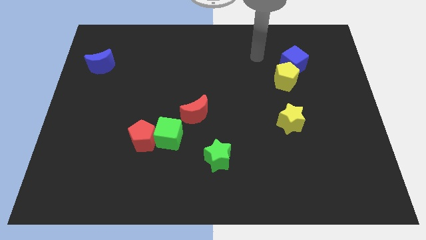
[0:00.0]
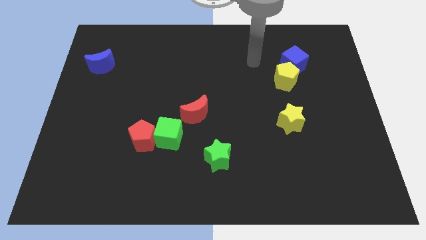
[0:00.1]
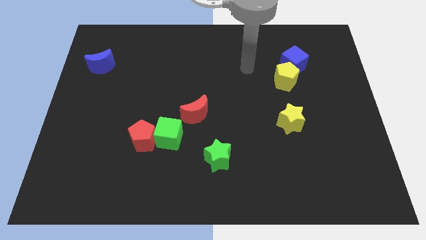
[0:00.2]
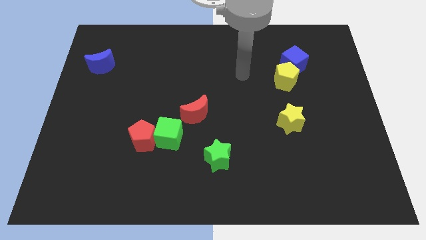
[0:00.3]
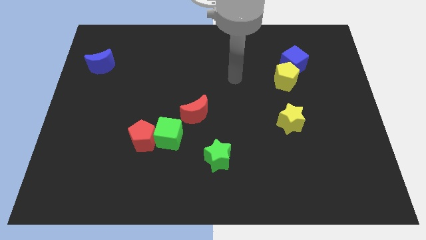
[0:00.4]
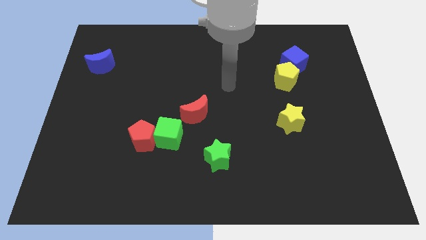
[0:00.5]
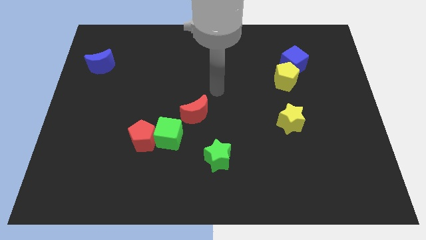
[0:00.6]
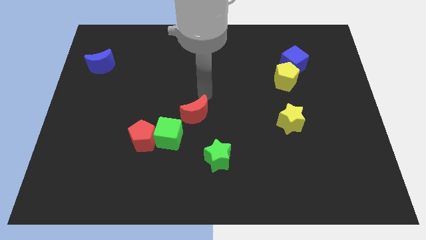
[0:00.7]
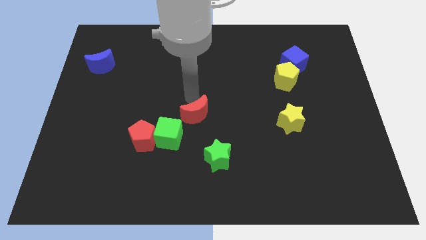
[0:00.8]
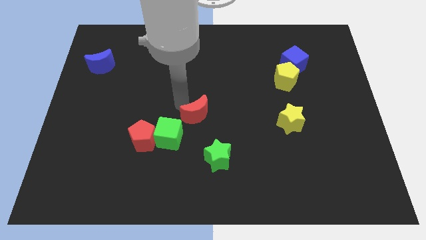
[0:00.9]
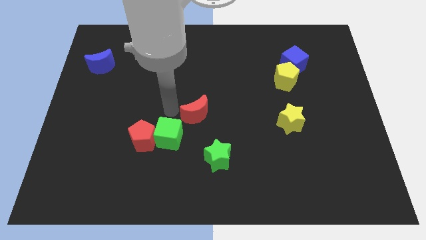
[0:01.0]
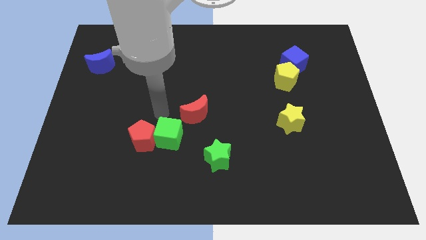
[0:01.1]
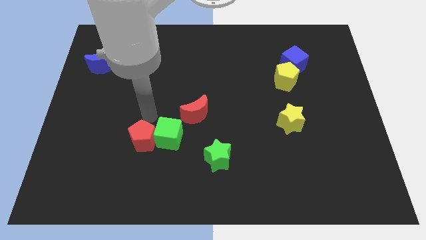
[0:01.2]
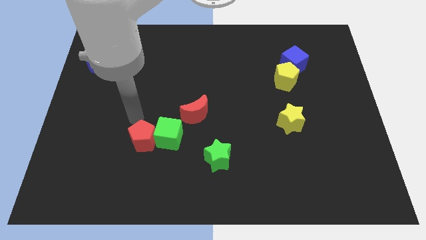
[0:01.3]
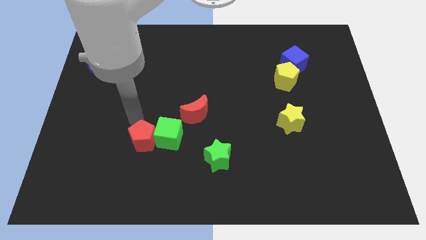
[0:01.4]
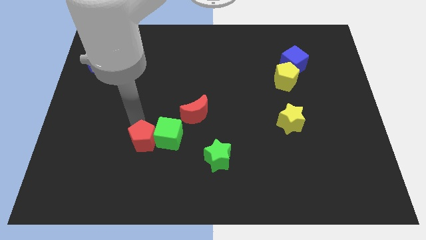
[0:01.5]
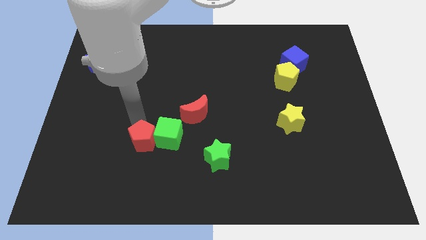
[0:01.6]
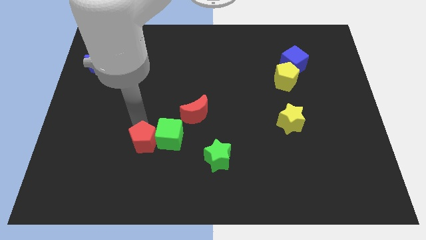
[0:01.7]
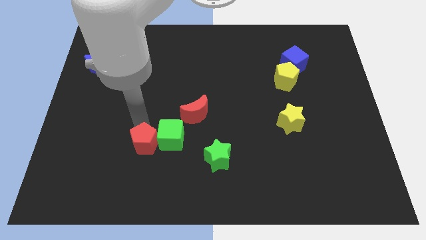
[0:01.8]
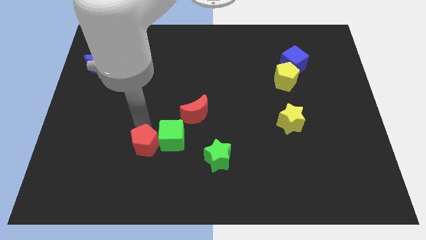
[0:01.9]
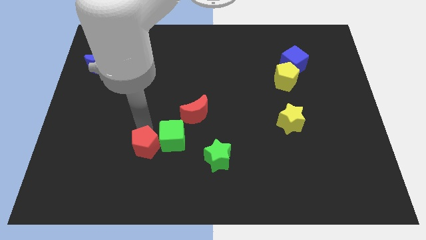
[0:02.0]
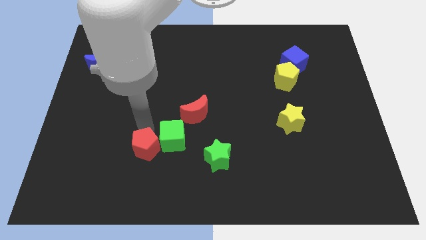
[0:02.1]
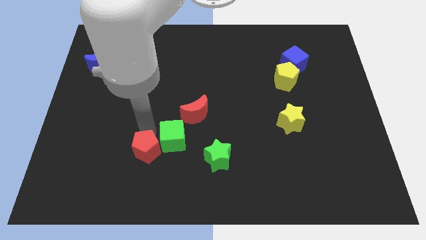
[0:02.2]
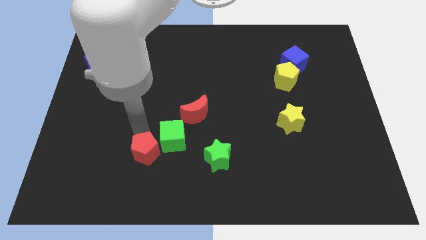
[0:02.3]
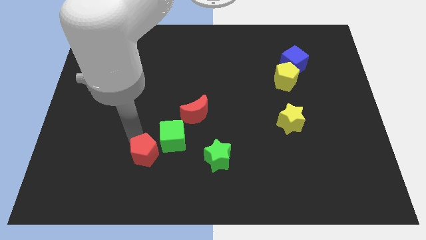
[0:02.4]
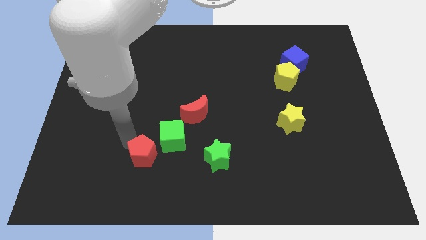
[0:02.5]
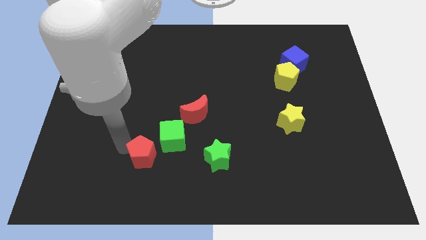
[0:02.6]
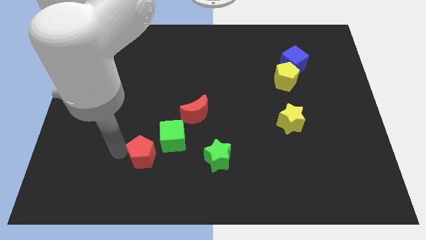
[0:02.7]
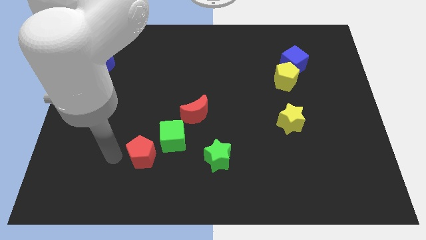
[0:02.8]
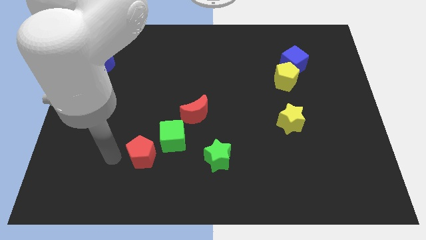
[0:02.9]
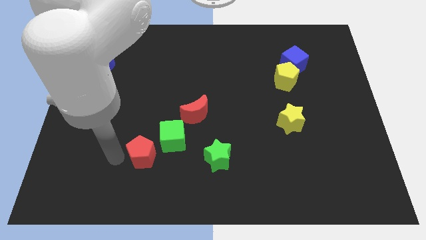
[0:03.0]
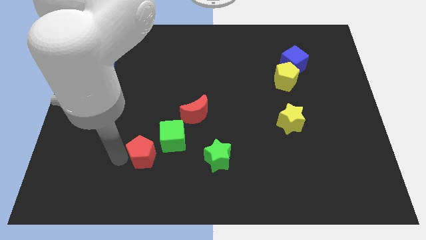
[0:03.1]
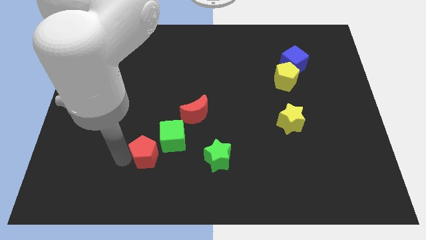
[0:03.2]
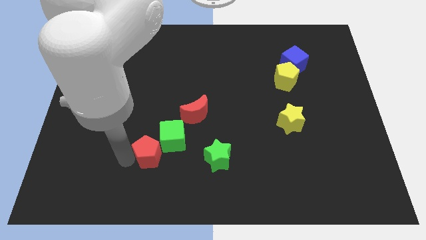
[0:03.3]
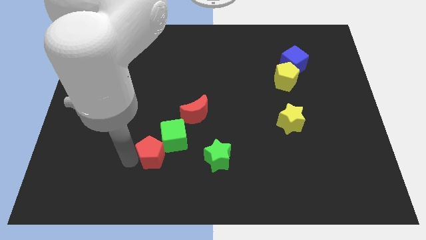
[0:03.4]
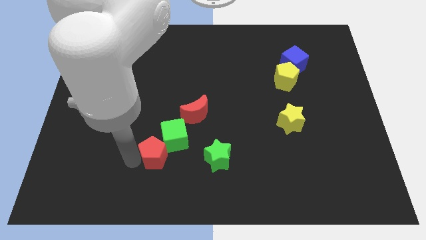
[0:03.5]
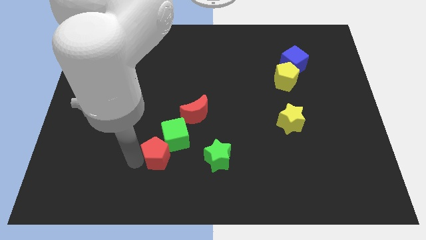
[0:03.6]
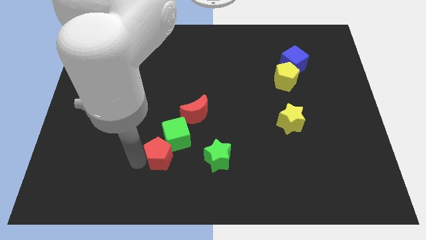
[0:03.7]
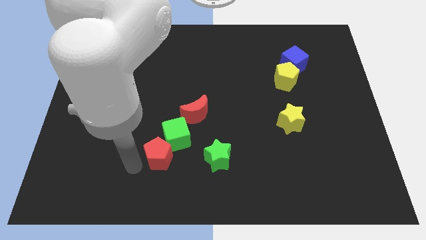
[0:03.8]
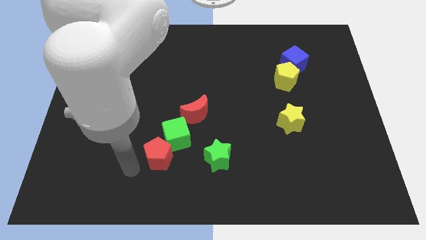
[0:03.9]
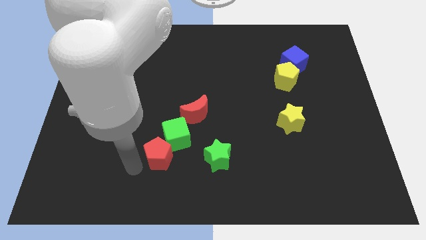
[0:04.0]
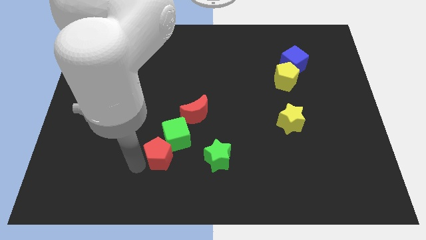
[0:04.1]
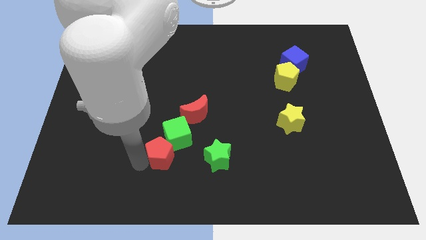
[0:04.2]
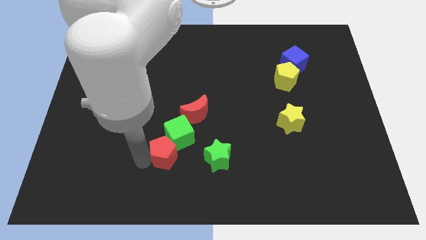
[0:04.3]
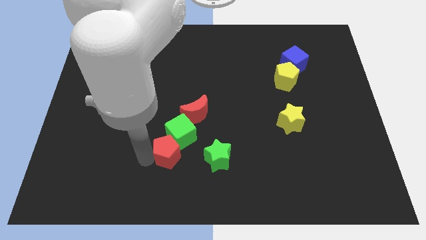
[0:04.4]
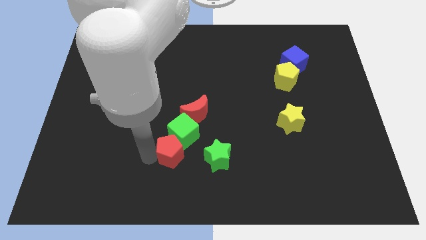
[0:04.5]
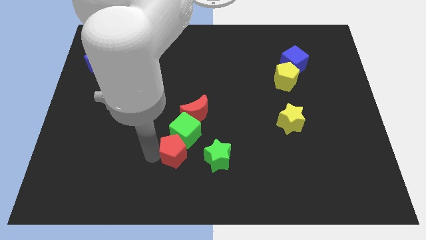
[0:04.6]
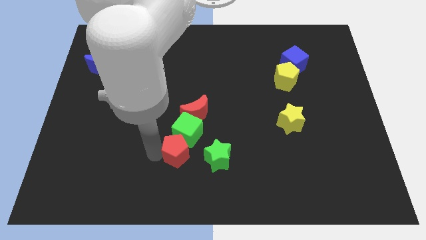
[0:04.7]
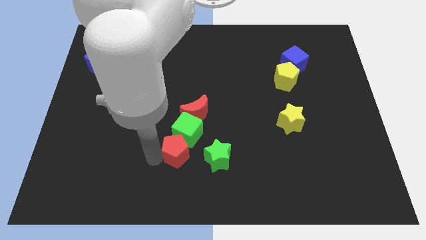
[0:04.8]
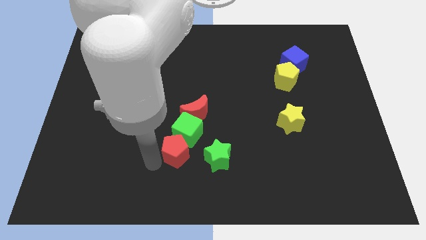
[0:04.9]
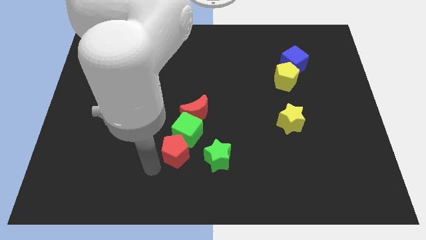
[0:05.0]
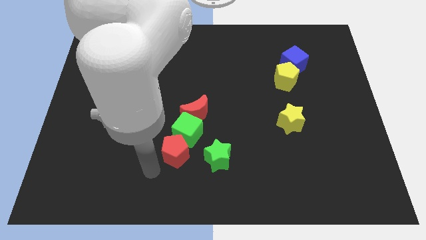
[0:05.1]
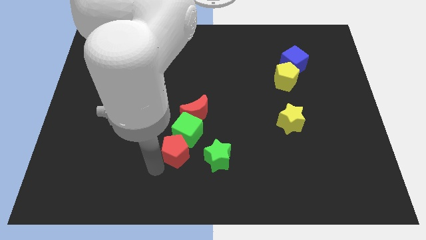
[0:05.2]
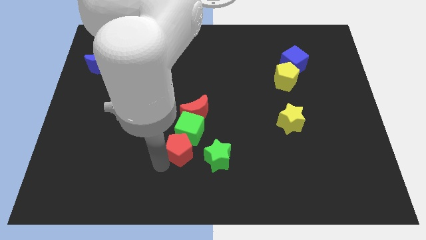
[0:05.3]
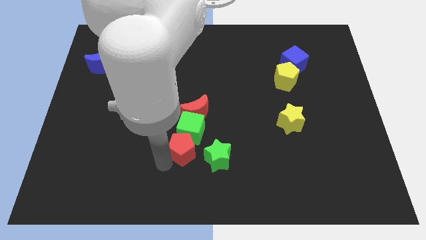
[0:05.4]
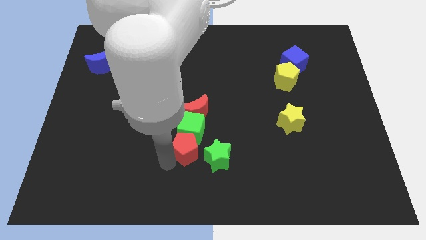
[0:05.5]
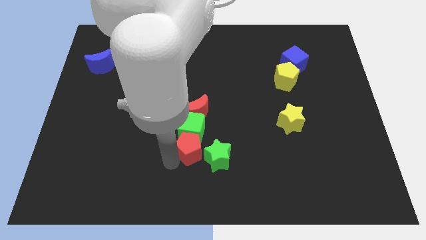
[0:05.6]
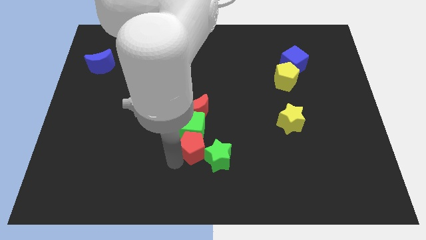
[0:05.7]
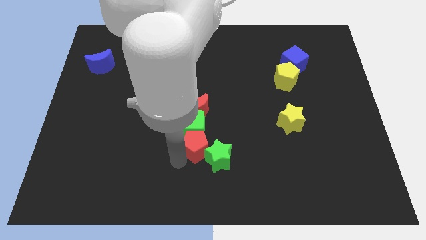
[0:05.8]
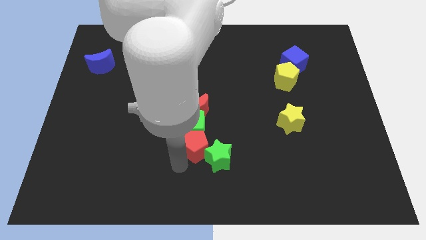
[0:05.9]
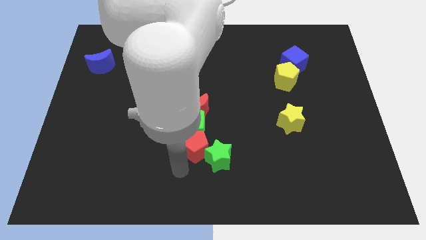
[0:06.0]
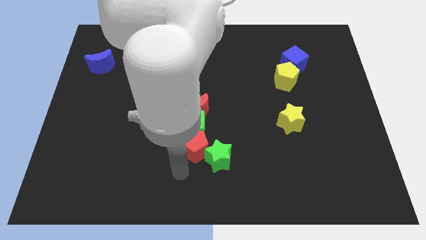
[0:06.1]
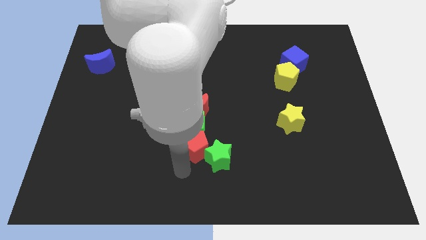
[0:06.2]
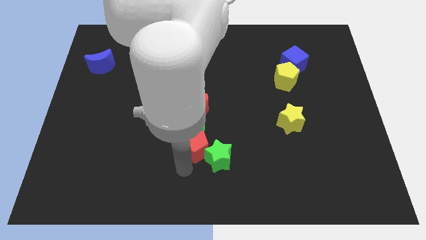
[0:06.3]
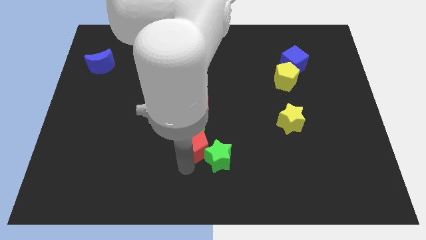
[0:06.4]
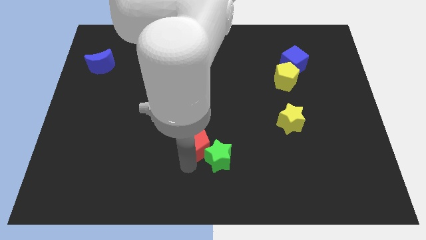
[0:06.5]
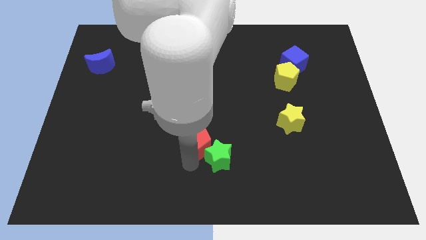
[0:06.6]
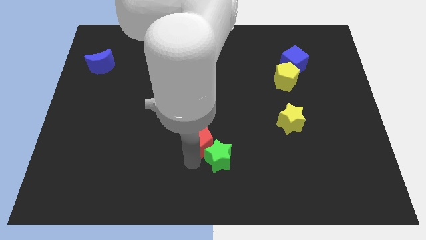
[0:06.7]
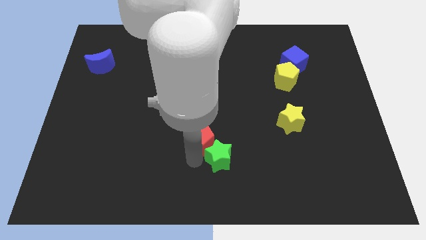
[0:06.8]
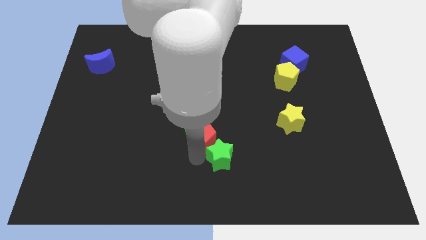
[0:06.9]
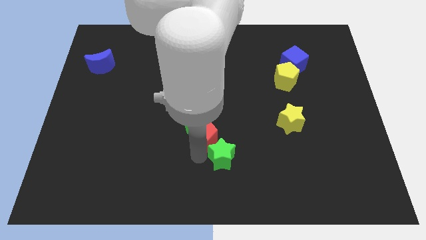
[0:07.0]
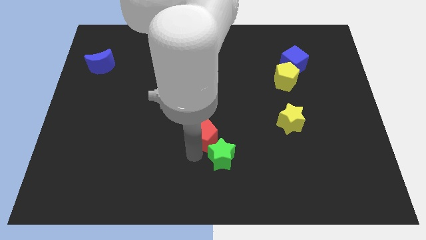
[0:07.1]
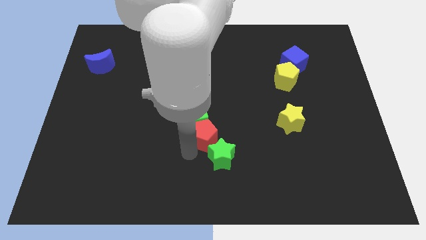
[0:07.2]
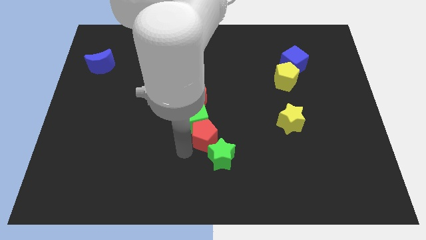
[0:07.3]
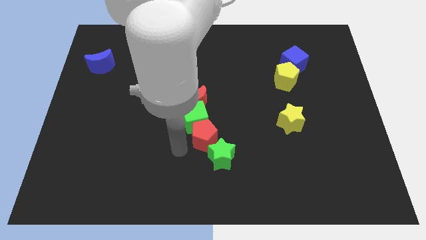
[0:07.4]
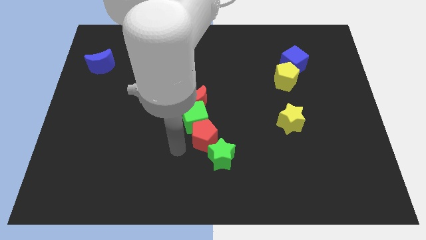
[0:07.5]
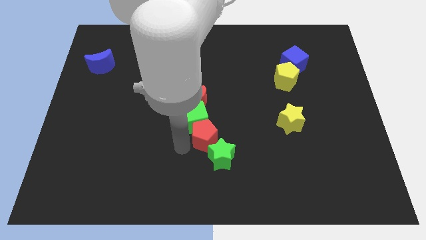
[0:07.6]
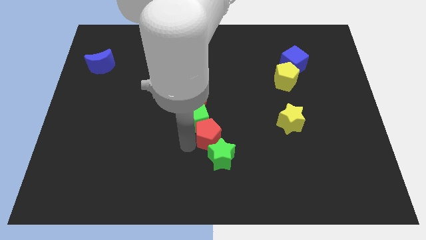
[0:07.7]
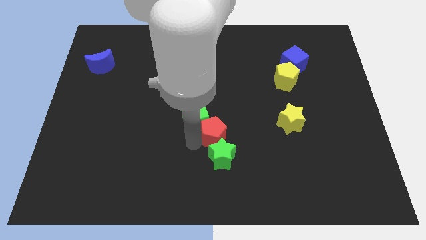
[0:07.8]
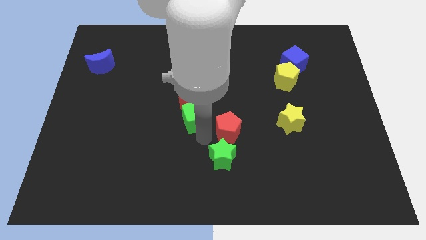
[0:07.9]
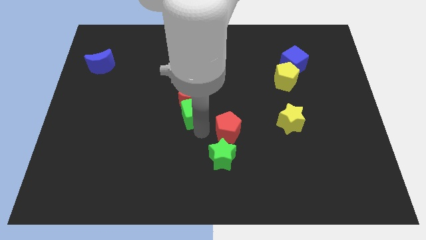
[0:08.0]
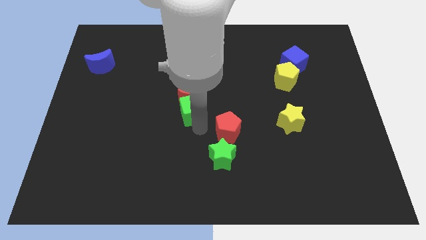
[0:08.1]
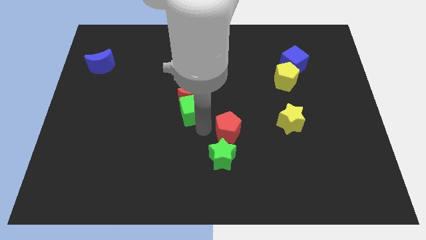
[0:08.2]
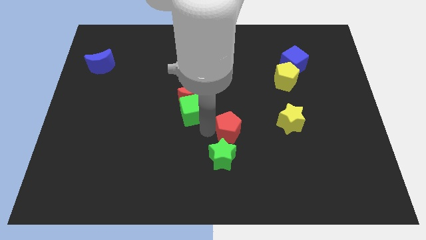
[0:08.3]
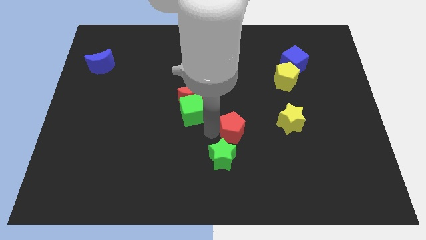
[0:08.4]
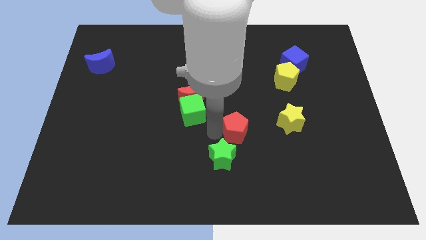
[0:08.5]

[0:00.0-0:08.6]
move the red pentagon to the right
